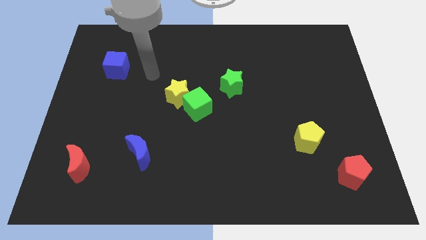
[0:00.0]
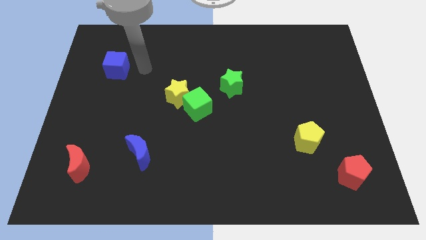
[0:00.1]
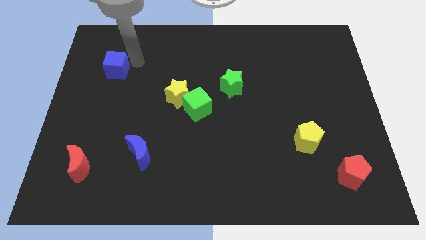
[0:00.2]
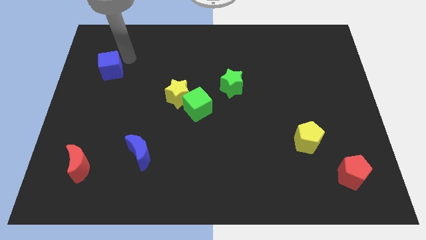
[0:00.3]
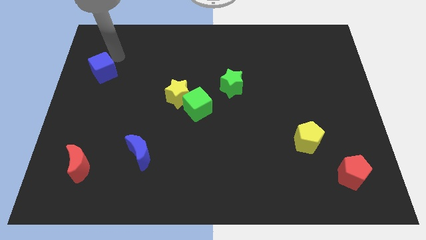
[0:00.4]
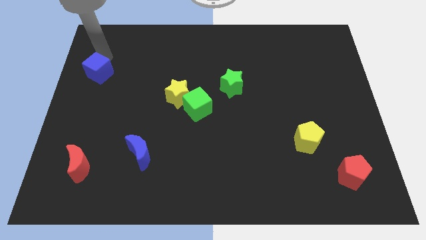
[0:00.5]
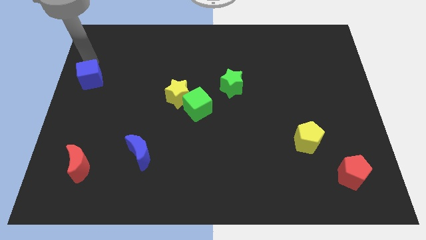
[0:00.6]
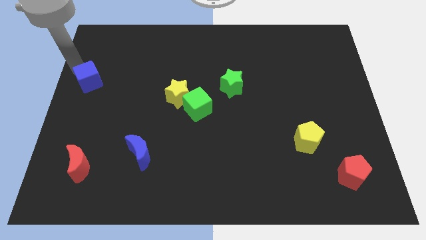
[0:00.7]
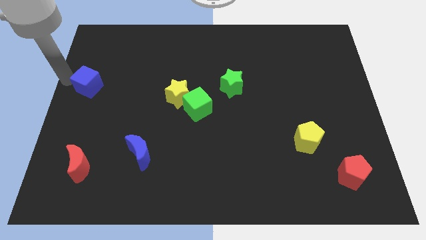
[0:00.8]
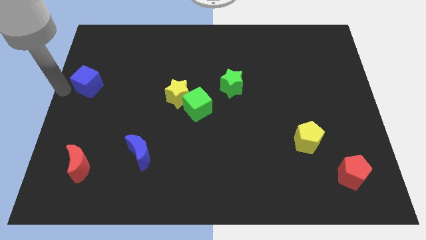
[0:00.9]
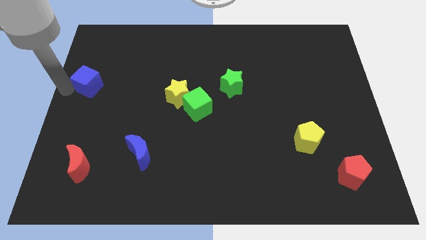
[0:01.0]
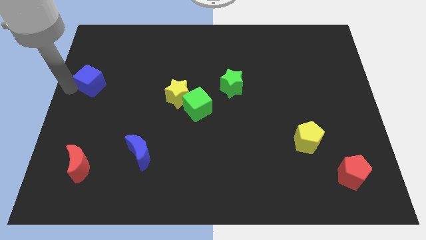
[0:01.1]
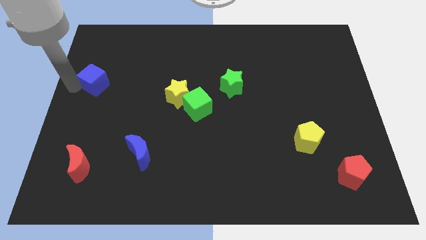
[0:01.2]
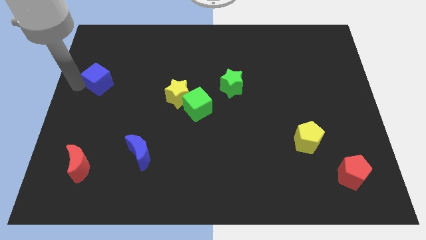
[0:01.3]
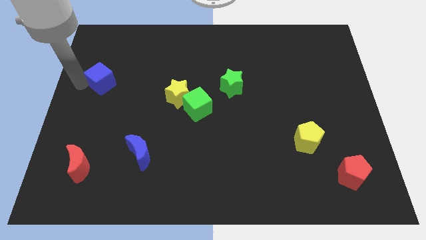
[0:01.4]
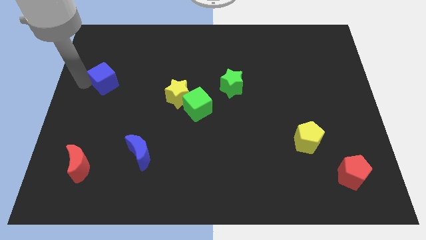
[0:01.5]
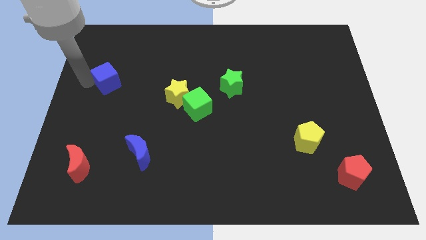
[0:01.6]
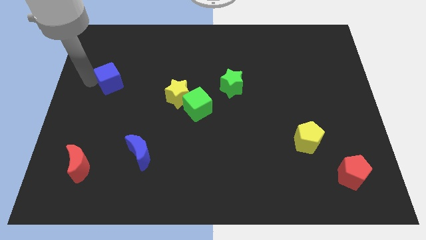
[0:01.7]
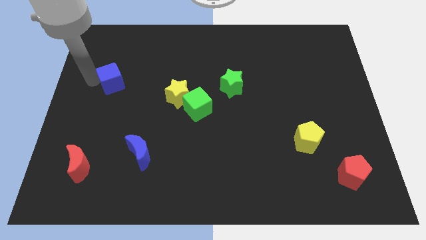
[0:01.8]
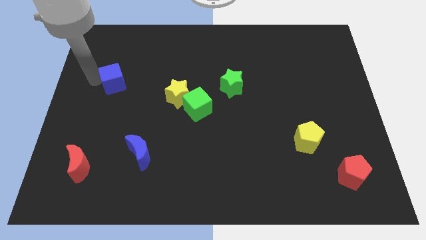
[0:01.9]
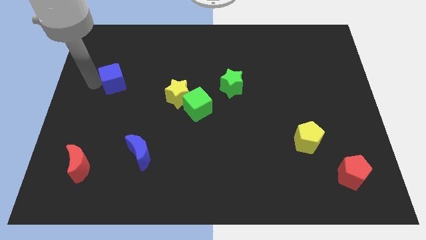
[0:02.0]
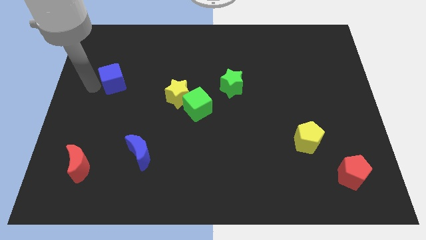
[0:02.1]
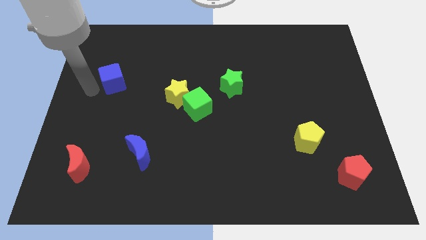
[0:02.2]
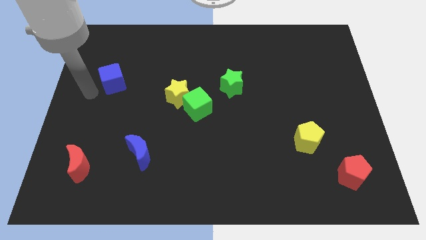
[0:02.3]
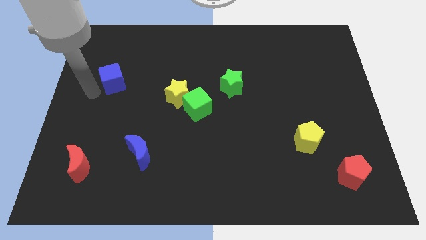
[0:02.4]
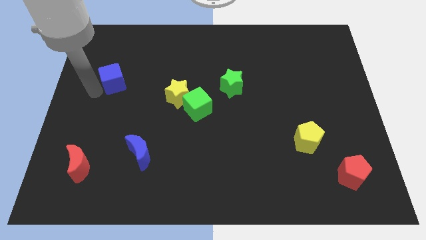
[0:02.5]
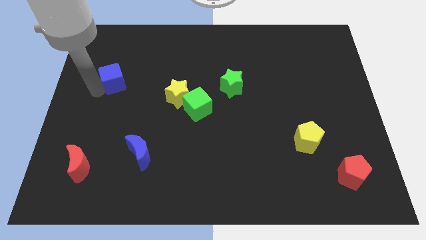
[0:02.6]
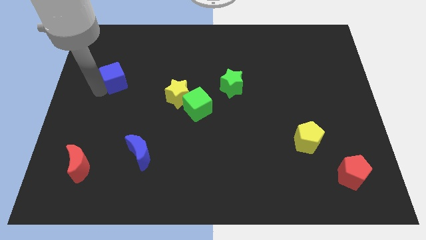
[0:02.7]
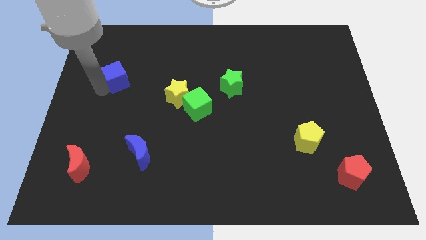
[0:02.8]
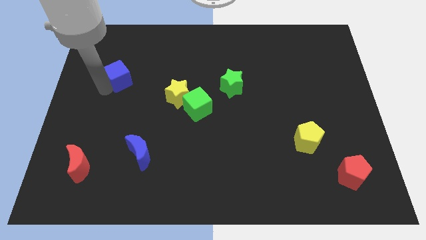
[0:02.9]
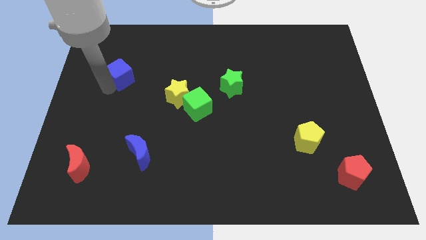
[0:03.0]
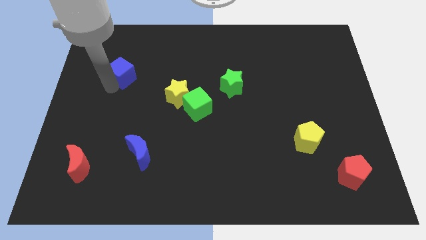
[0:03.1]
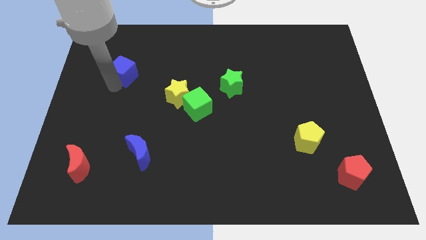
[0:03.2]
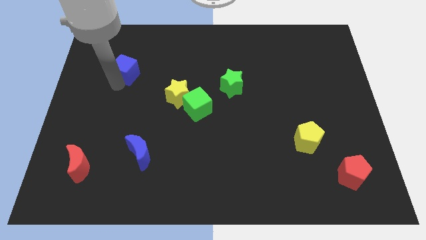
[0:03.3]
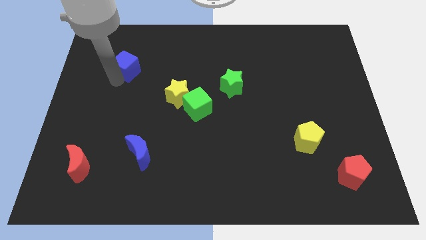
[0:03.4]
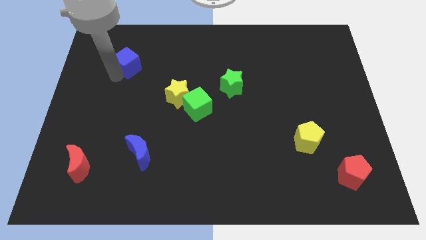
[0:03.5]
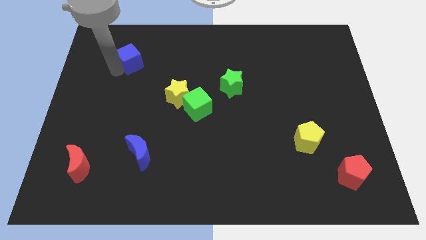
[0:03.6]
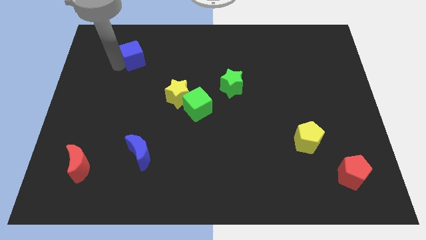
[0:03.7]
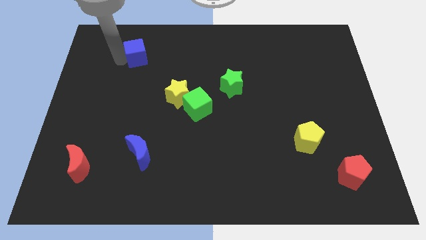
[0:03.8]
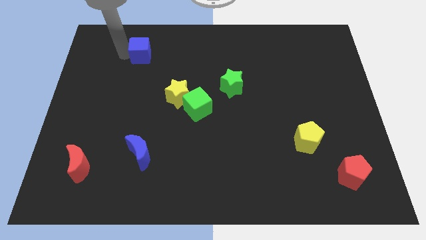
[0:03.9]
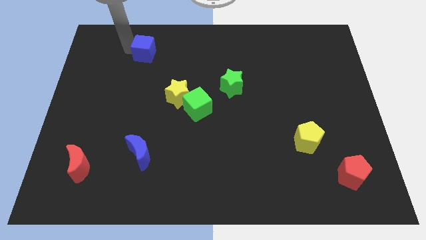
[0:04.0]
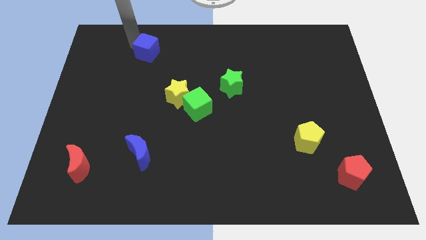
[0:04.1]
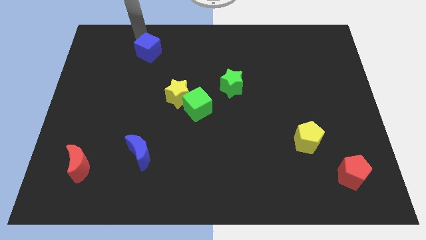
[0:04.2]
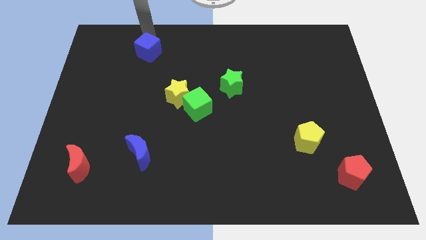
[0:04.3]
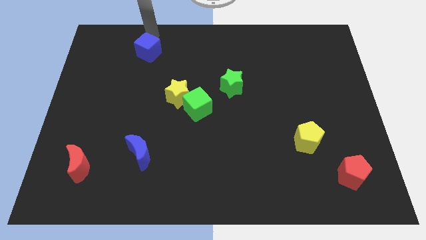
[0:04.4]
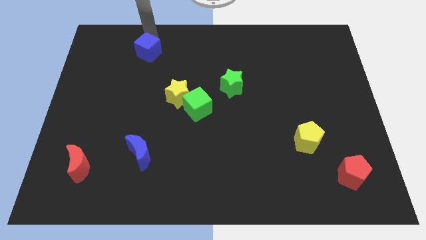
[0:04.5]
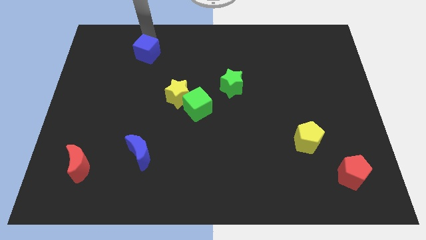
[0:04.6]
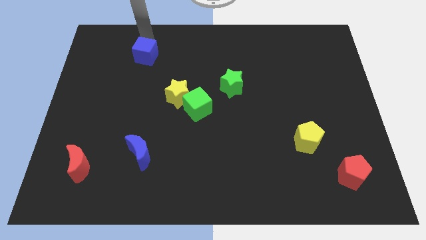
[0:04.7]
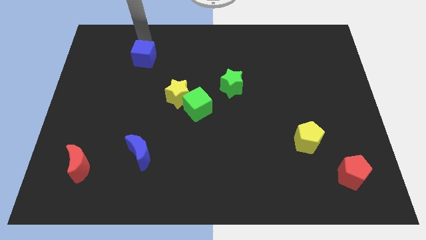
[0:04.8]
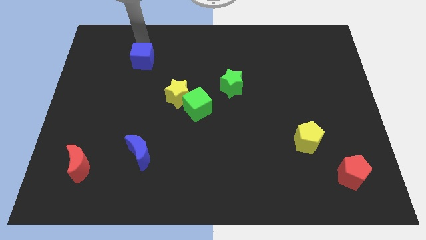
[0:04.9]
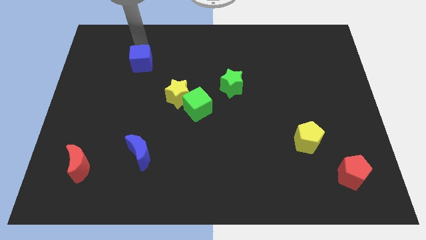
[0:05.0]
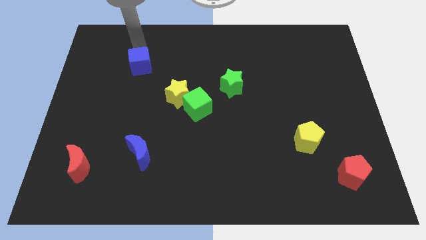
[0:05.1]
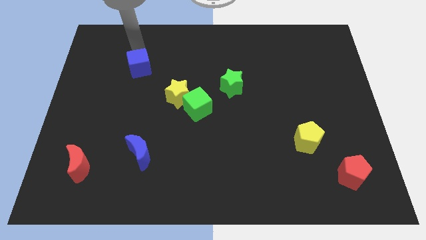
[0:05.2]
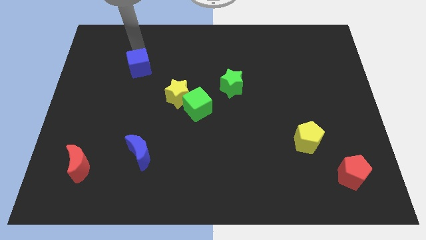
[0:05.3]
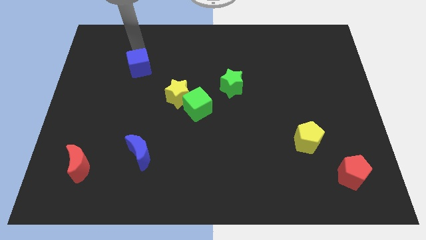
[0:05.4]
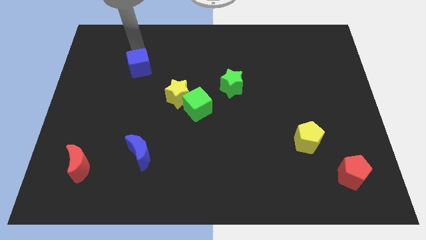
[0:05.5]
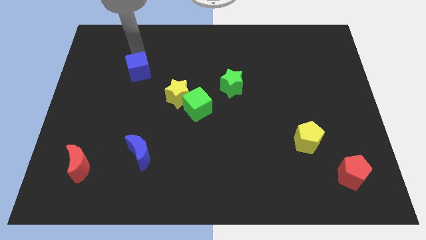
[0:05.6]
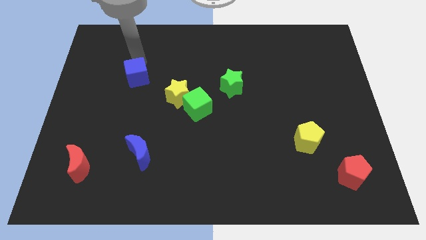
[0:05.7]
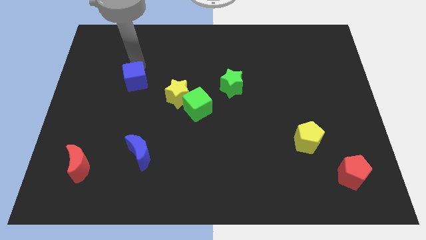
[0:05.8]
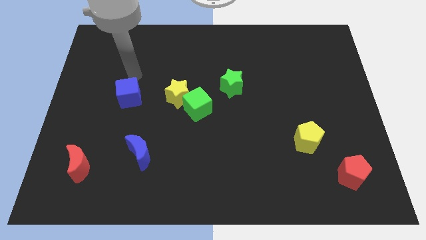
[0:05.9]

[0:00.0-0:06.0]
slightly push the blue cube diagonally down and right

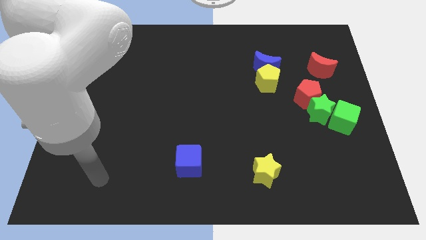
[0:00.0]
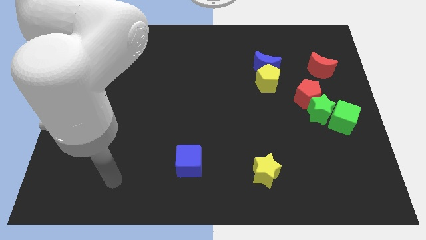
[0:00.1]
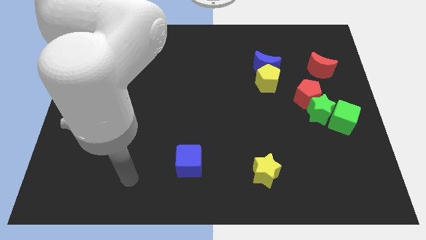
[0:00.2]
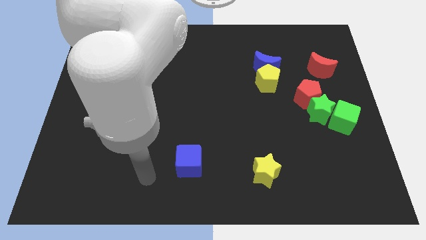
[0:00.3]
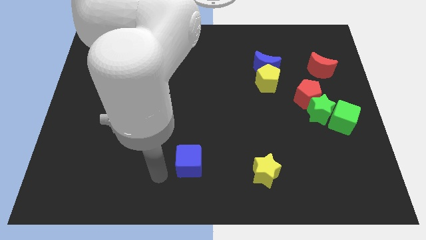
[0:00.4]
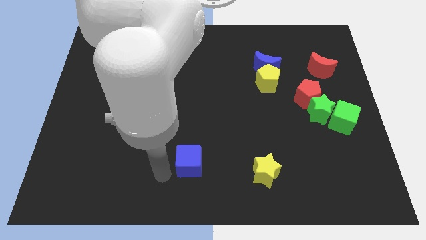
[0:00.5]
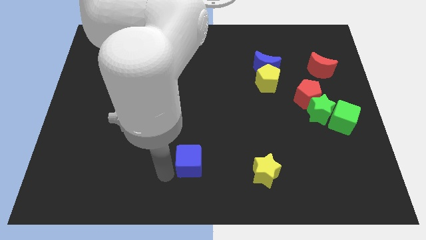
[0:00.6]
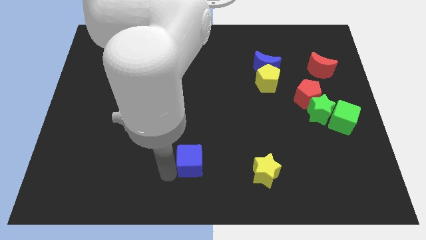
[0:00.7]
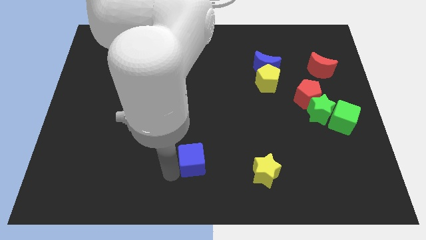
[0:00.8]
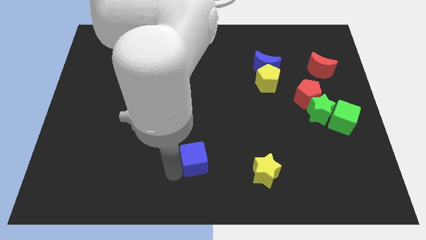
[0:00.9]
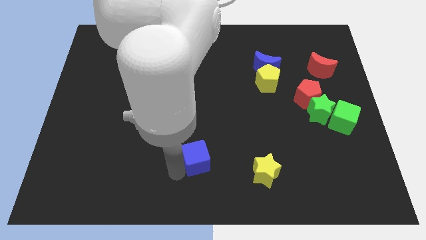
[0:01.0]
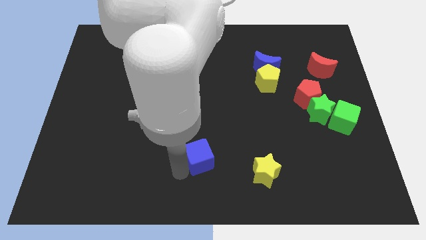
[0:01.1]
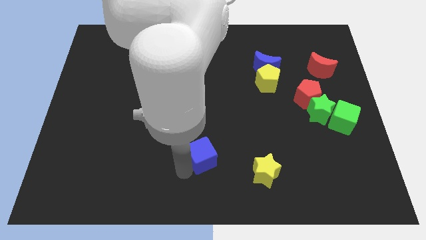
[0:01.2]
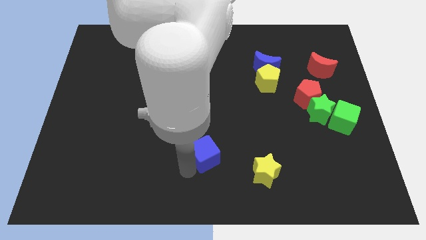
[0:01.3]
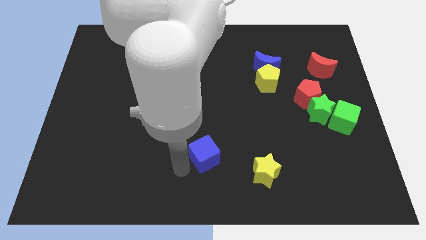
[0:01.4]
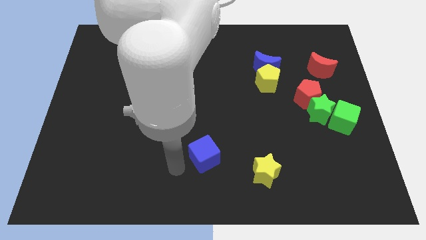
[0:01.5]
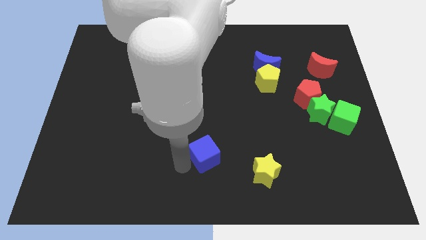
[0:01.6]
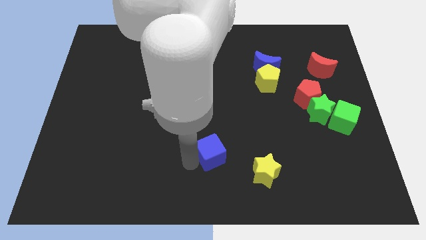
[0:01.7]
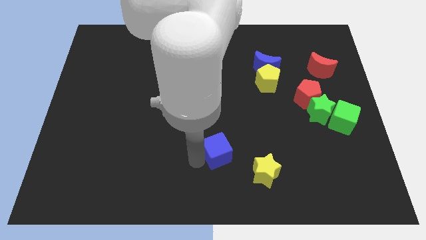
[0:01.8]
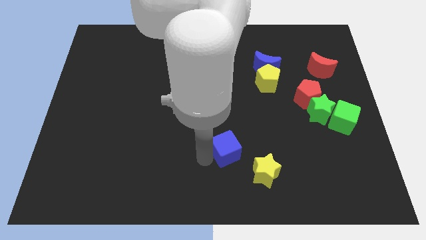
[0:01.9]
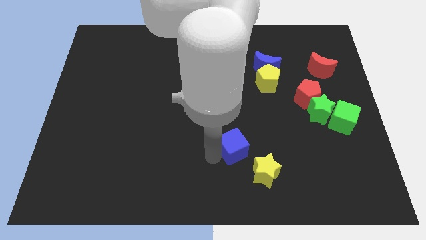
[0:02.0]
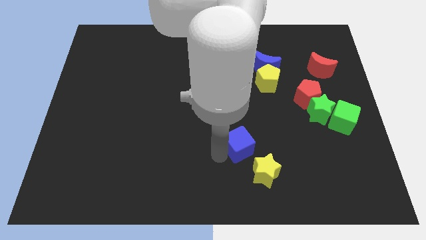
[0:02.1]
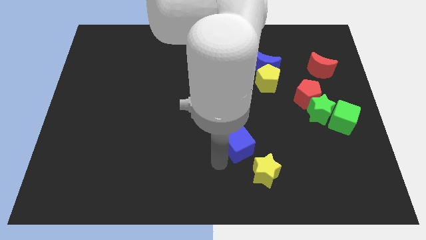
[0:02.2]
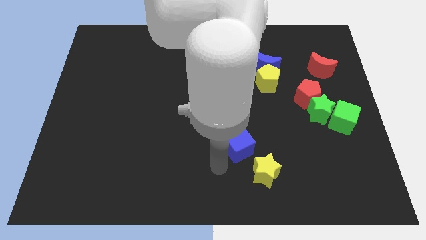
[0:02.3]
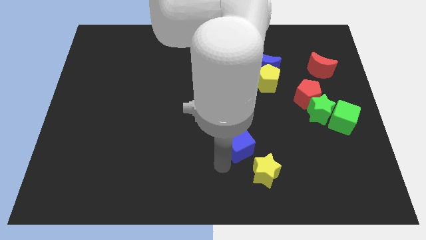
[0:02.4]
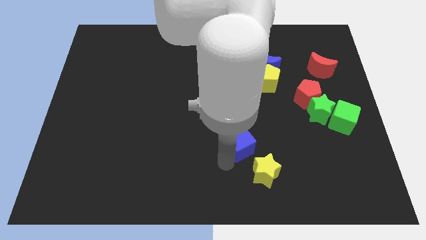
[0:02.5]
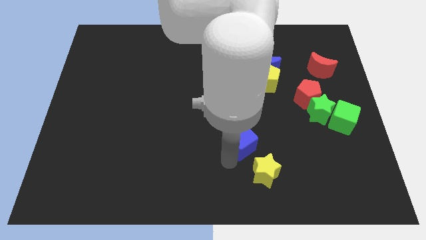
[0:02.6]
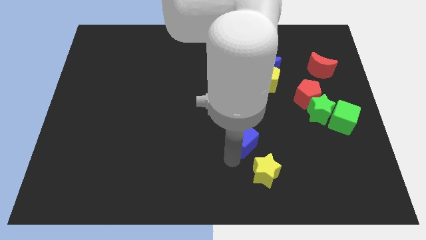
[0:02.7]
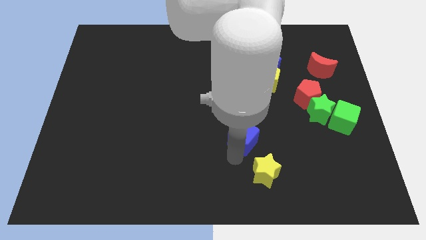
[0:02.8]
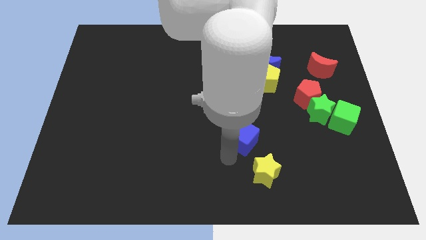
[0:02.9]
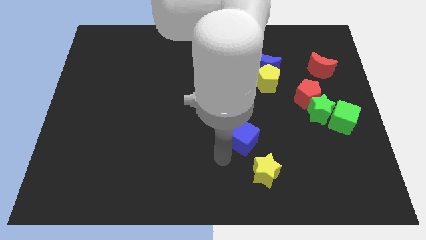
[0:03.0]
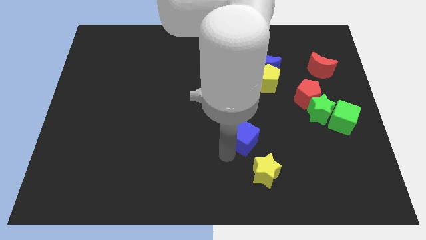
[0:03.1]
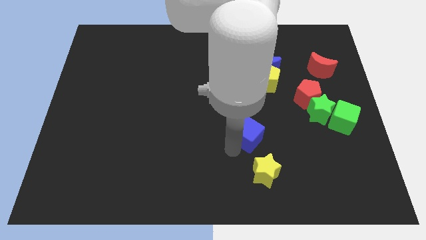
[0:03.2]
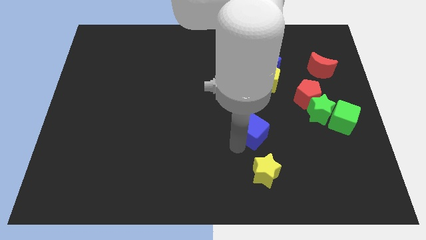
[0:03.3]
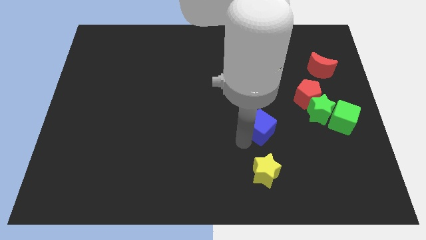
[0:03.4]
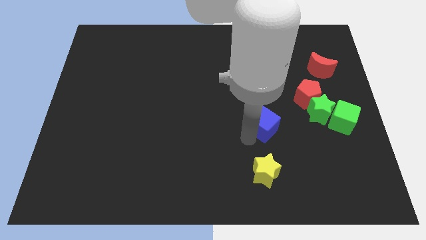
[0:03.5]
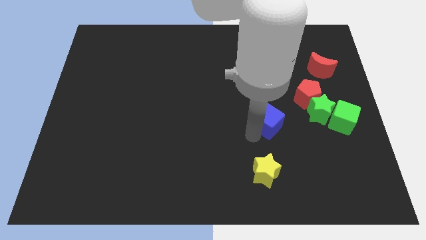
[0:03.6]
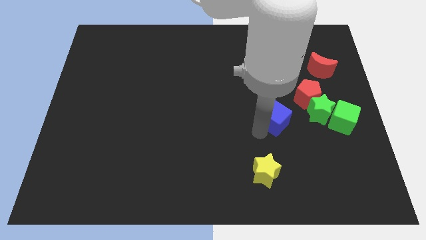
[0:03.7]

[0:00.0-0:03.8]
push the blue cube upwards and to the right
